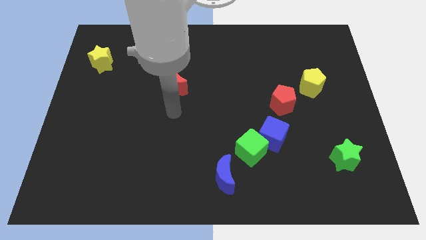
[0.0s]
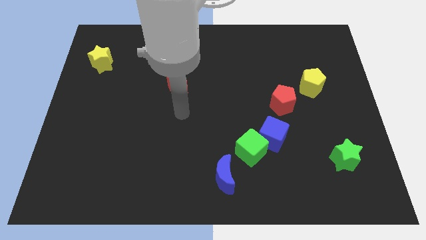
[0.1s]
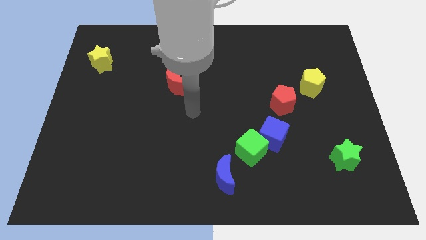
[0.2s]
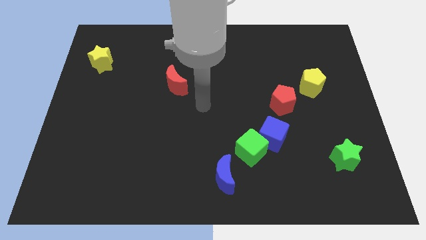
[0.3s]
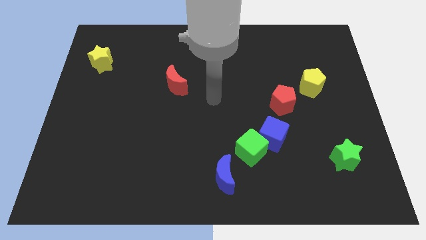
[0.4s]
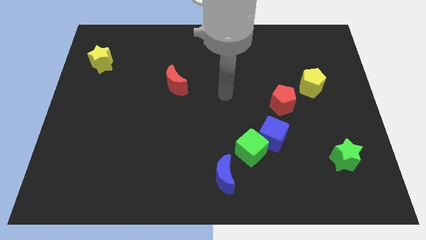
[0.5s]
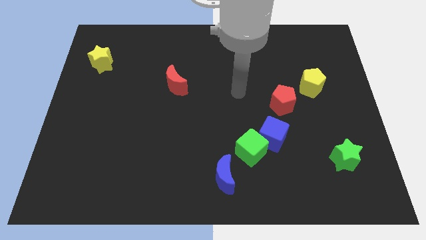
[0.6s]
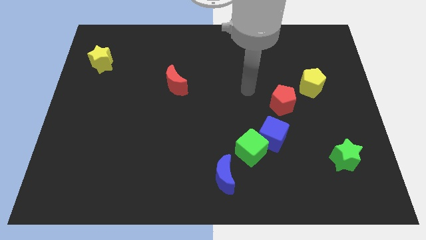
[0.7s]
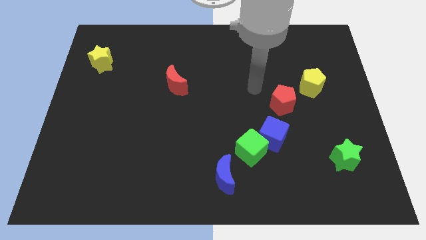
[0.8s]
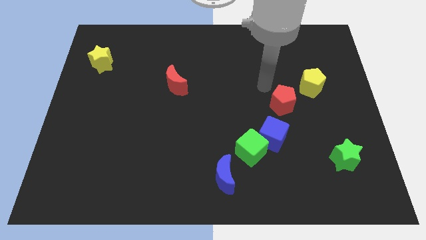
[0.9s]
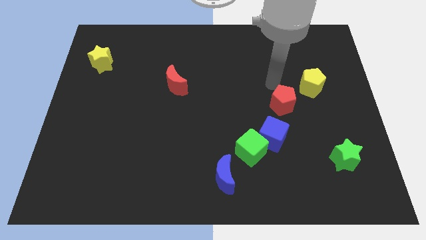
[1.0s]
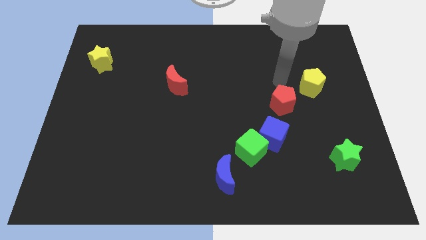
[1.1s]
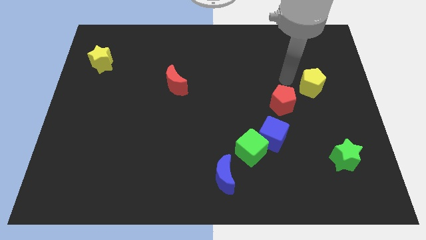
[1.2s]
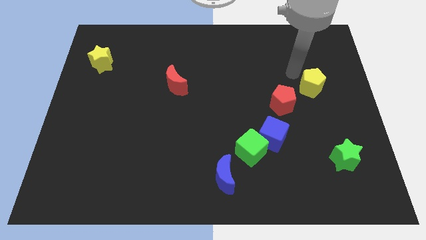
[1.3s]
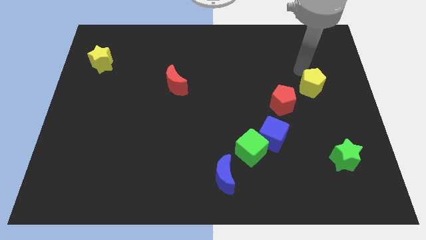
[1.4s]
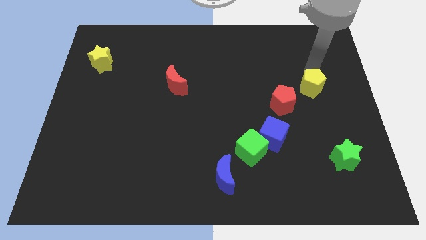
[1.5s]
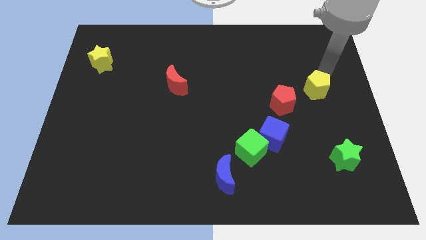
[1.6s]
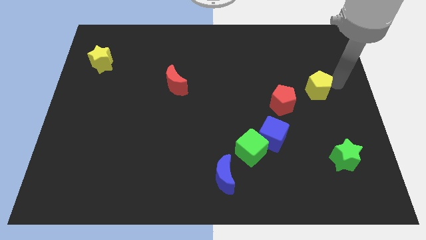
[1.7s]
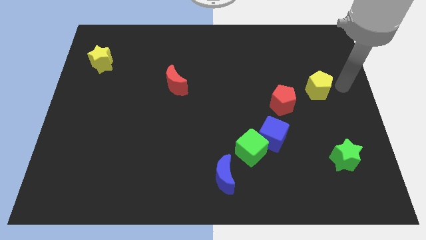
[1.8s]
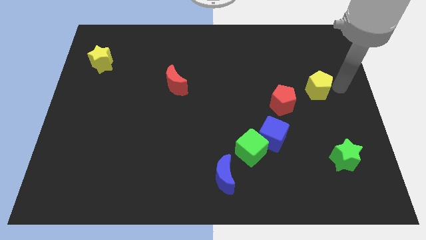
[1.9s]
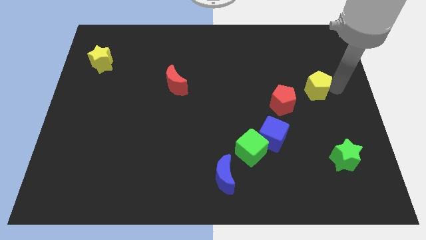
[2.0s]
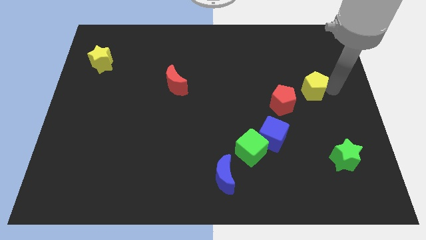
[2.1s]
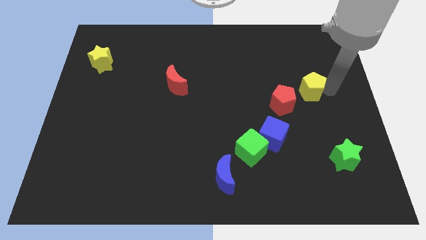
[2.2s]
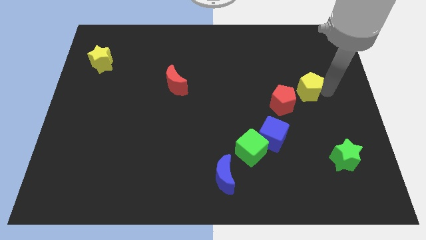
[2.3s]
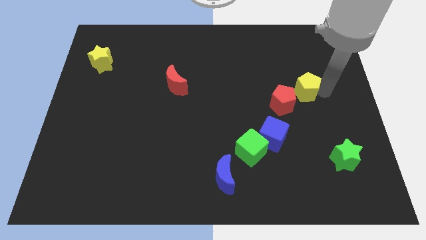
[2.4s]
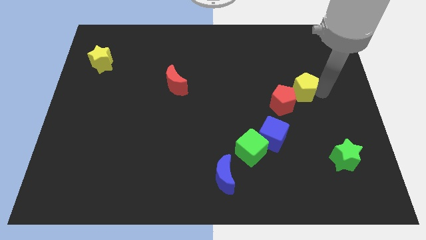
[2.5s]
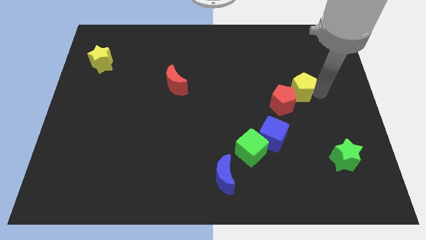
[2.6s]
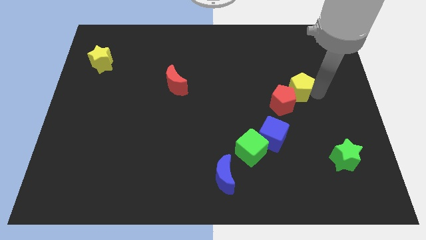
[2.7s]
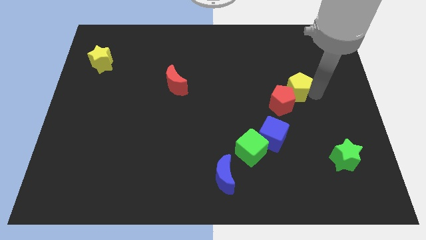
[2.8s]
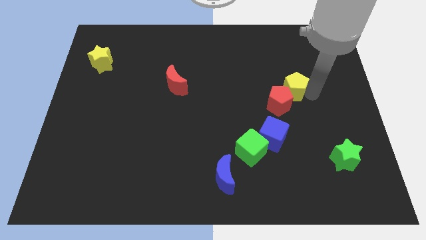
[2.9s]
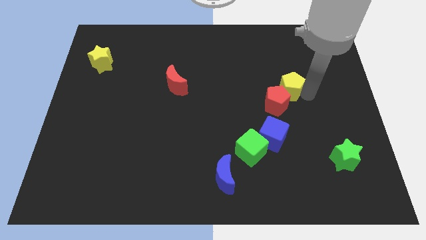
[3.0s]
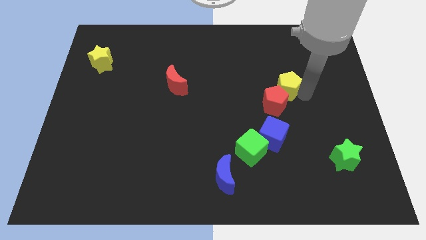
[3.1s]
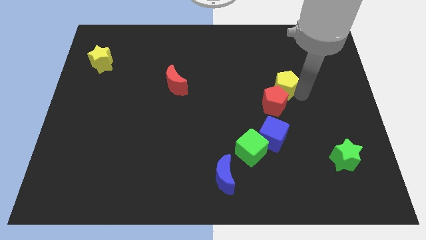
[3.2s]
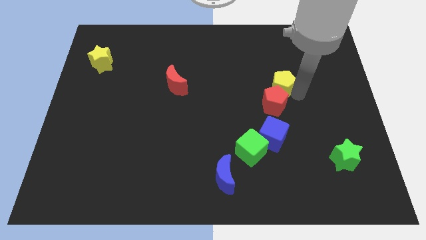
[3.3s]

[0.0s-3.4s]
push the yellow pentagon a little to the left

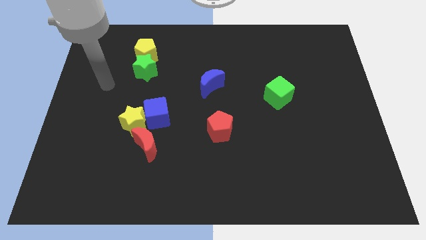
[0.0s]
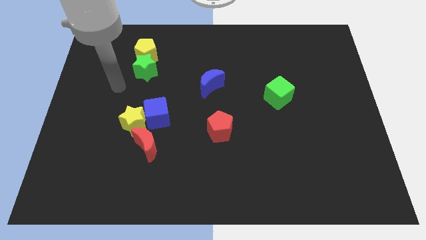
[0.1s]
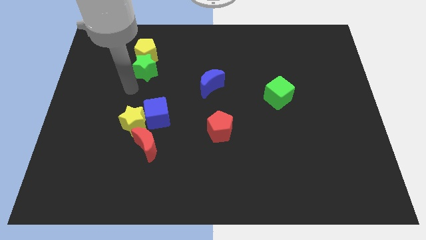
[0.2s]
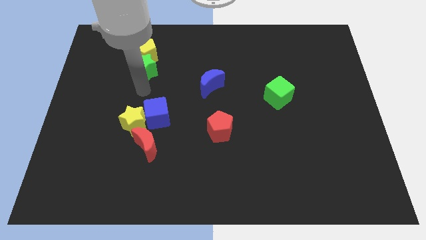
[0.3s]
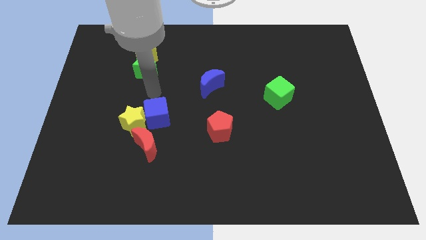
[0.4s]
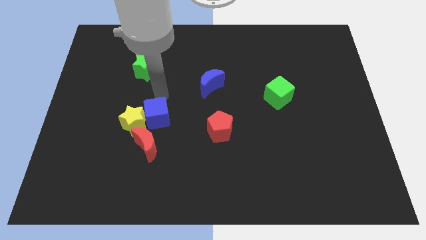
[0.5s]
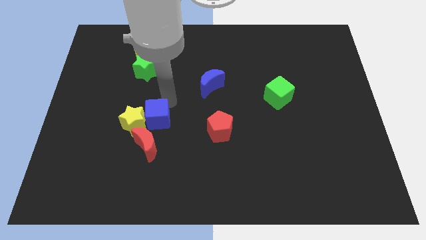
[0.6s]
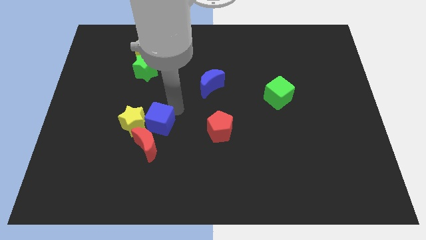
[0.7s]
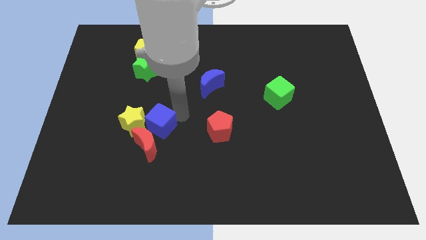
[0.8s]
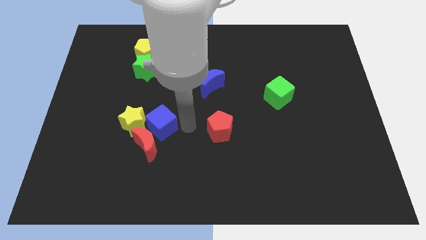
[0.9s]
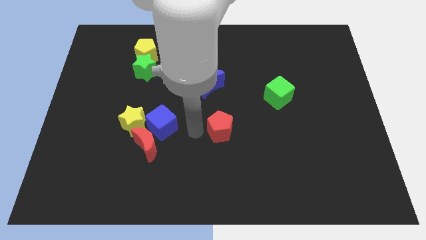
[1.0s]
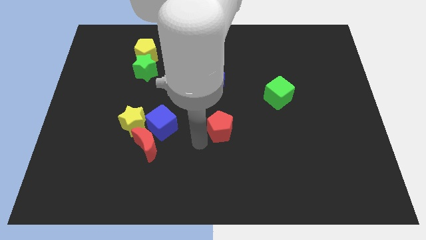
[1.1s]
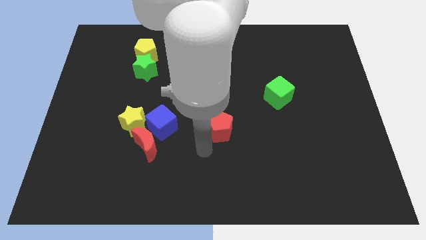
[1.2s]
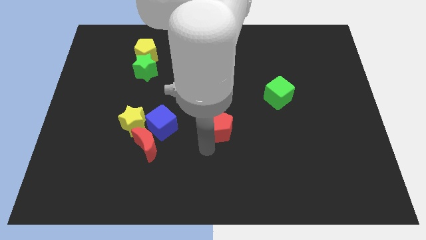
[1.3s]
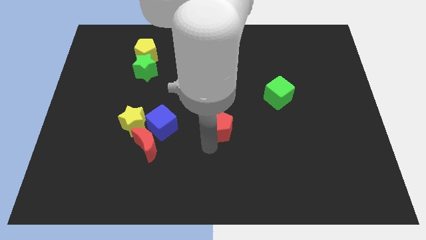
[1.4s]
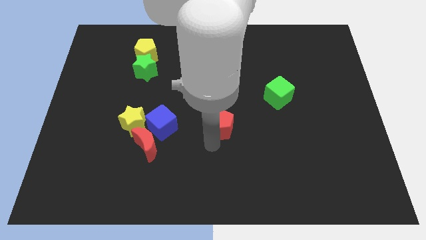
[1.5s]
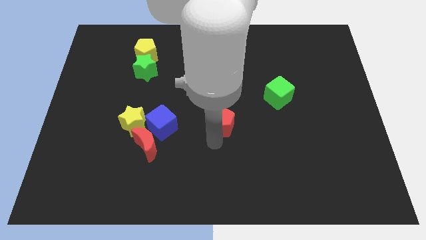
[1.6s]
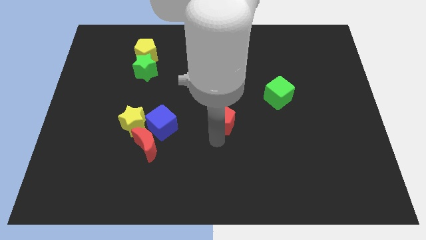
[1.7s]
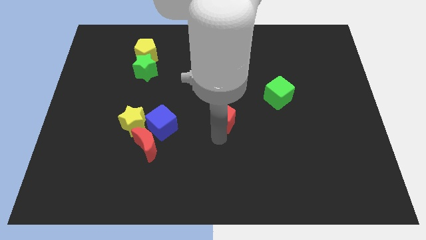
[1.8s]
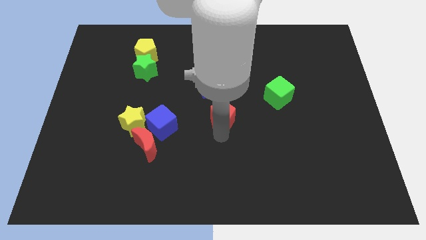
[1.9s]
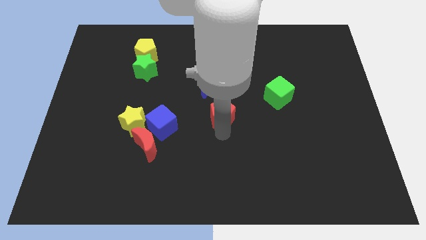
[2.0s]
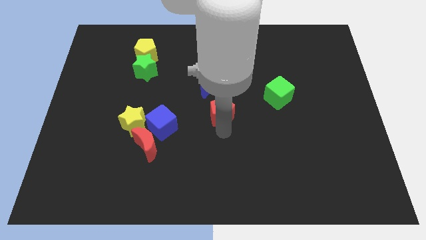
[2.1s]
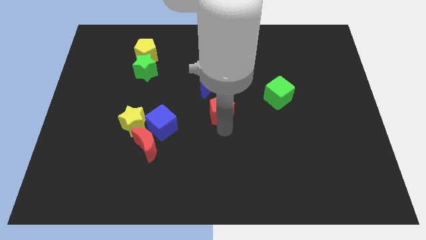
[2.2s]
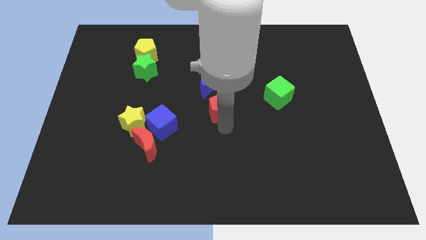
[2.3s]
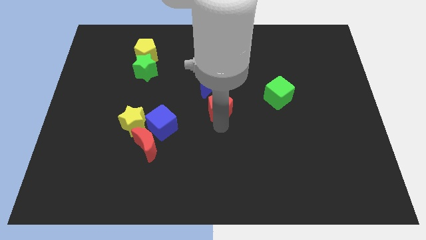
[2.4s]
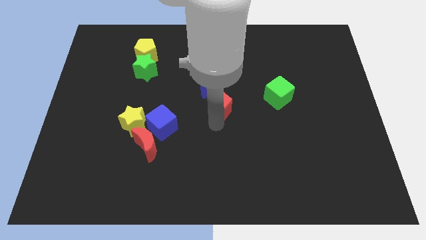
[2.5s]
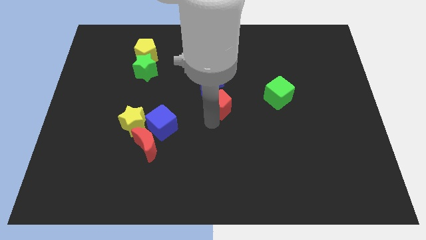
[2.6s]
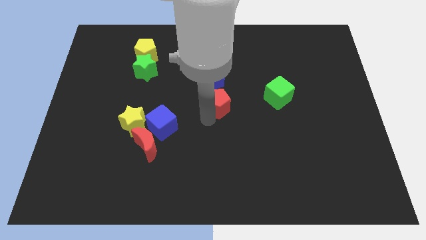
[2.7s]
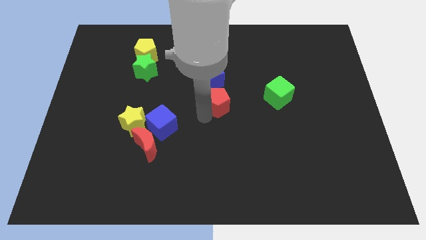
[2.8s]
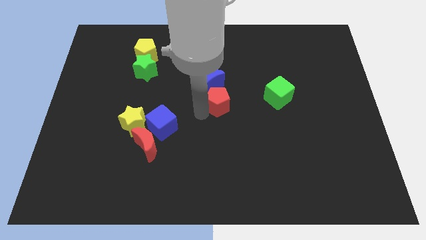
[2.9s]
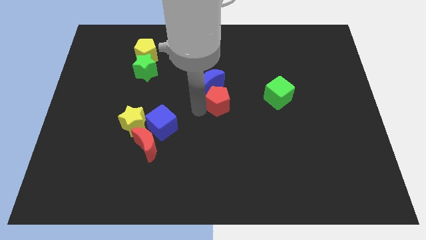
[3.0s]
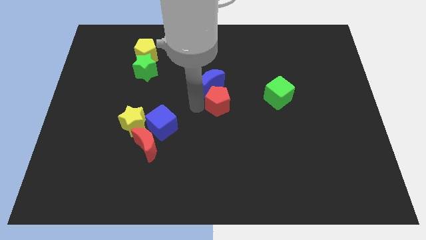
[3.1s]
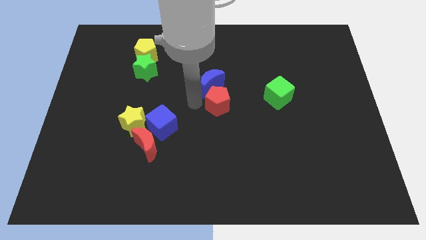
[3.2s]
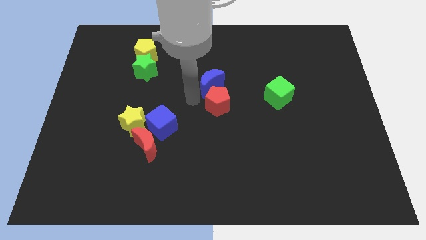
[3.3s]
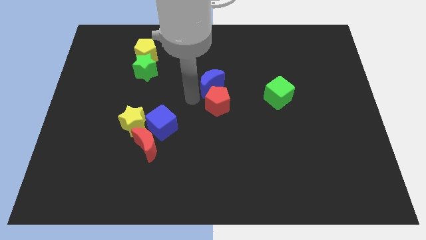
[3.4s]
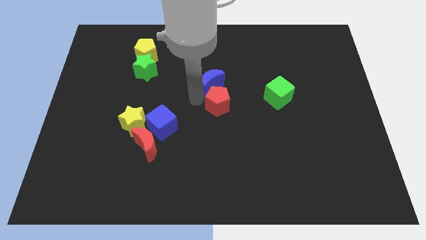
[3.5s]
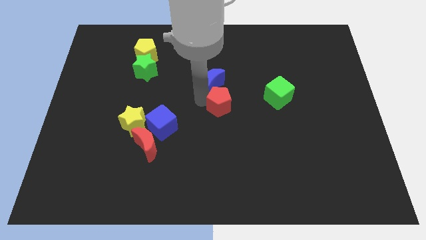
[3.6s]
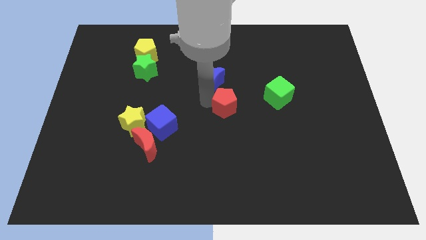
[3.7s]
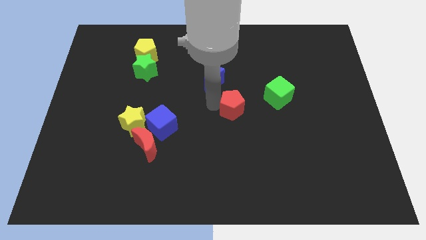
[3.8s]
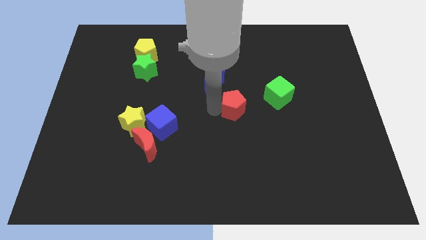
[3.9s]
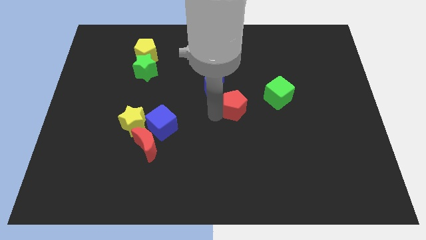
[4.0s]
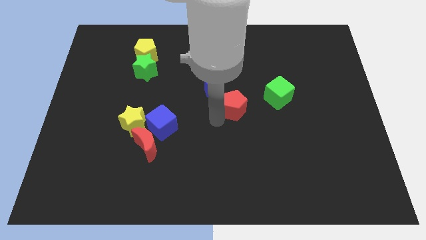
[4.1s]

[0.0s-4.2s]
push the red pentagon a little bit upwards and then to the right

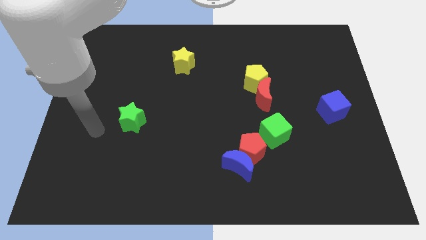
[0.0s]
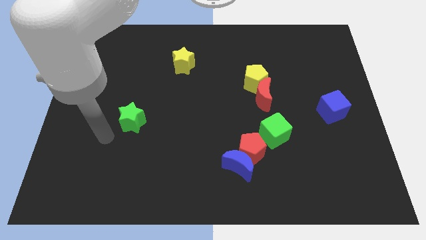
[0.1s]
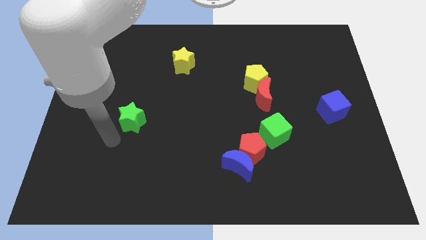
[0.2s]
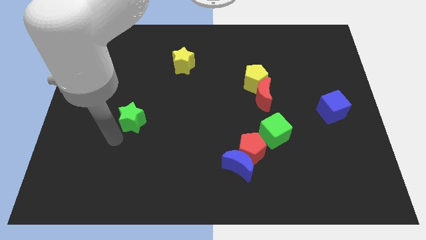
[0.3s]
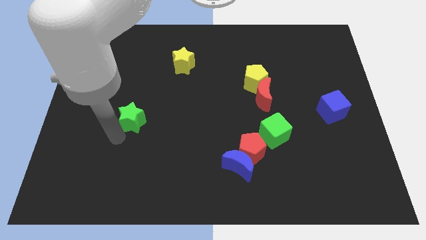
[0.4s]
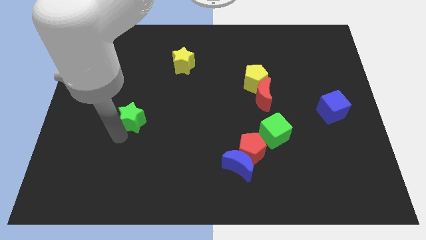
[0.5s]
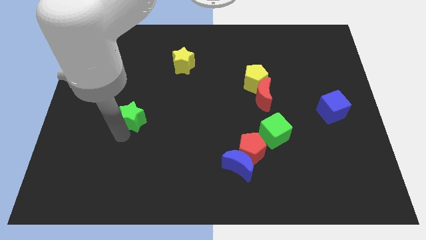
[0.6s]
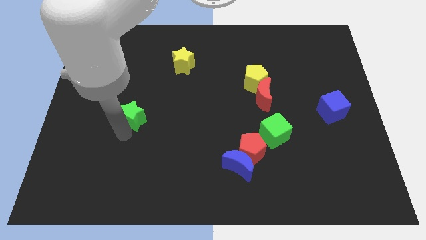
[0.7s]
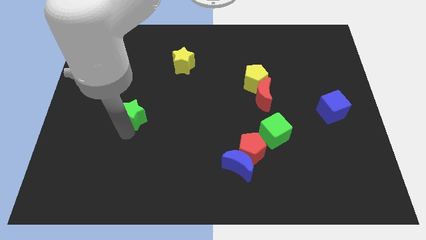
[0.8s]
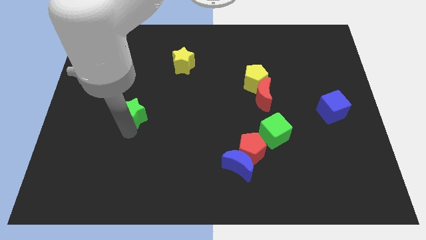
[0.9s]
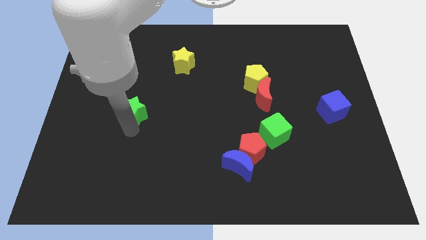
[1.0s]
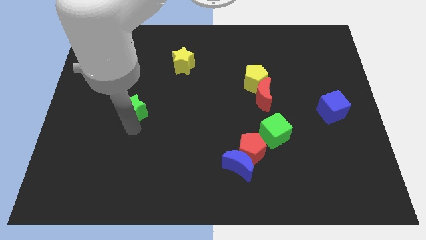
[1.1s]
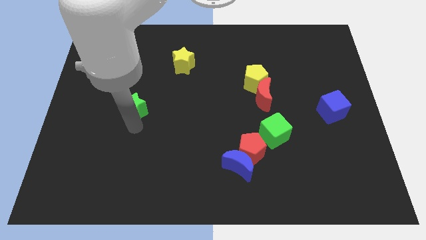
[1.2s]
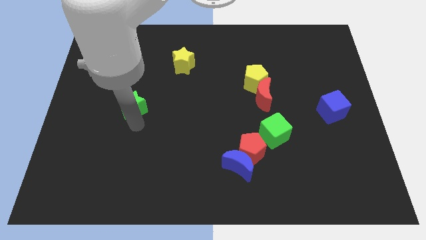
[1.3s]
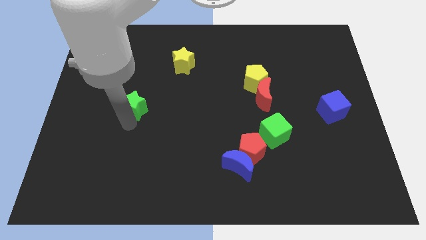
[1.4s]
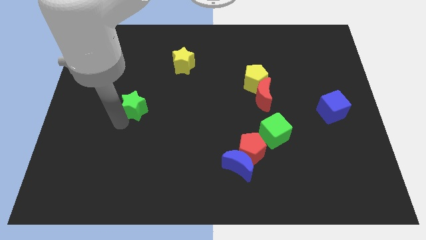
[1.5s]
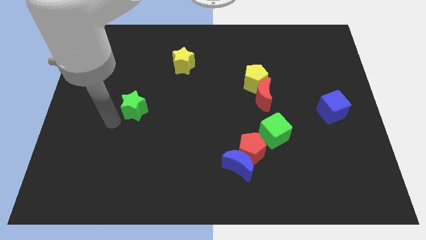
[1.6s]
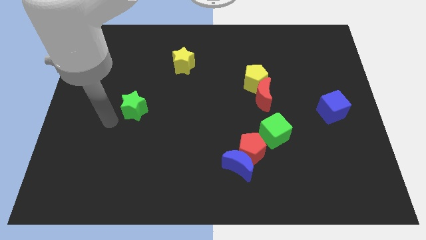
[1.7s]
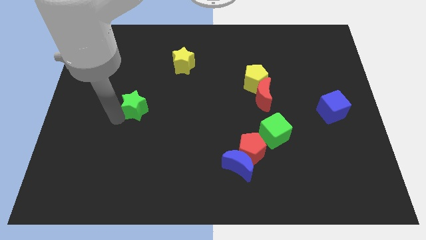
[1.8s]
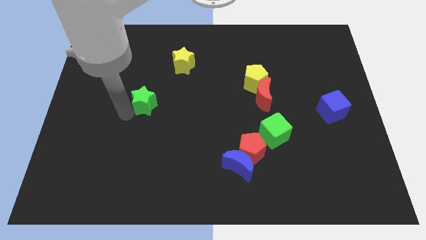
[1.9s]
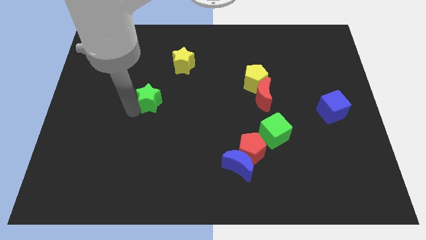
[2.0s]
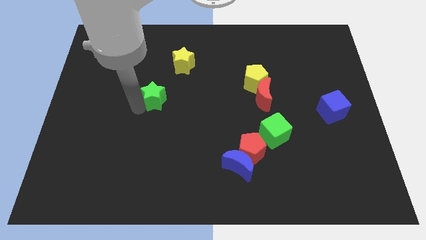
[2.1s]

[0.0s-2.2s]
push the green star up and right slightly
